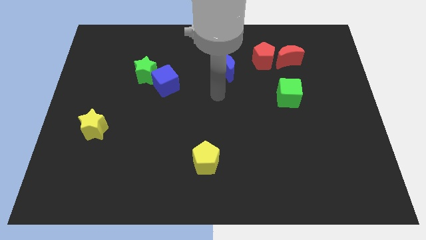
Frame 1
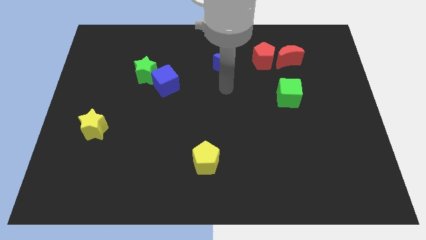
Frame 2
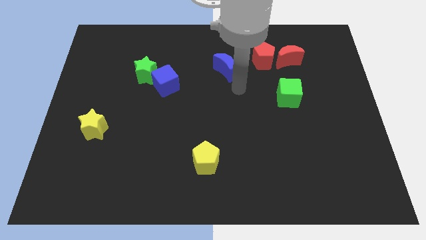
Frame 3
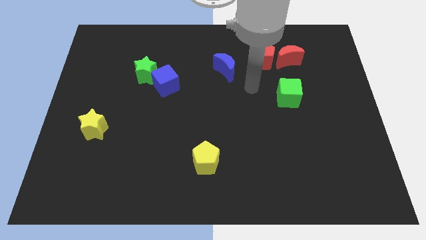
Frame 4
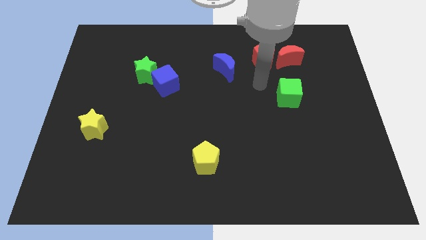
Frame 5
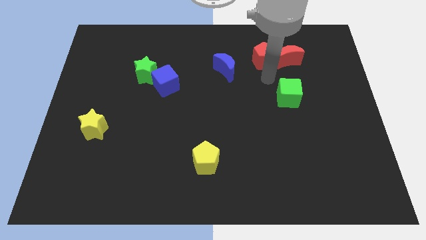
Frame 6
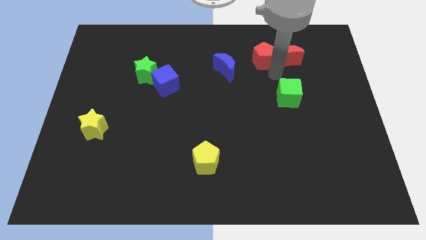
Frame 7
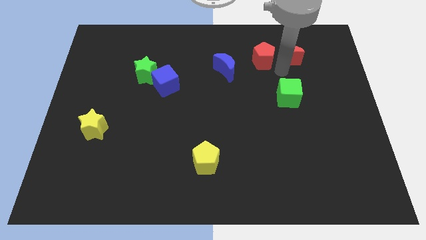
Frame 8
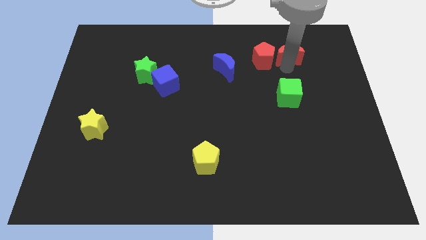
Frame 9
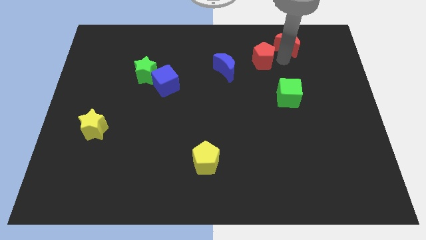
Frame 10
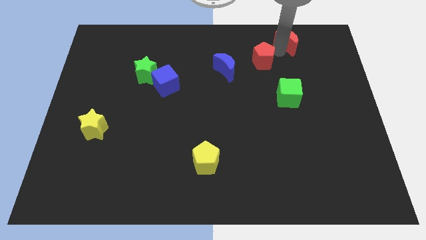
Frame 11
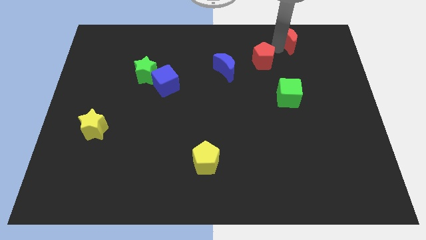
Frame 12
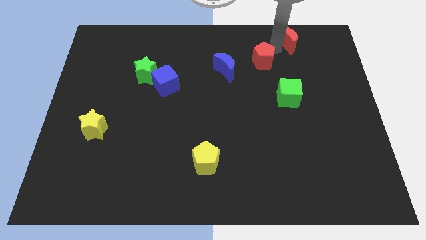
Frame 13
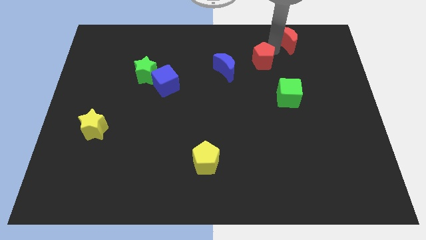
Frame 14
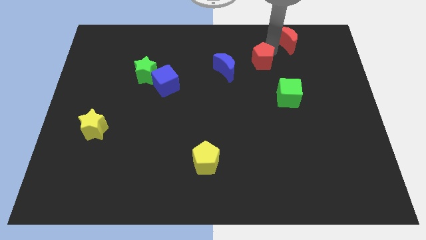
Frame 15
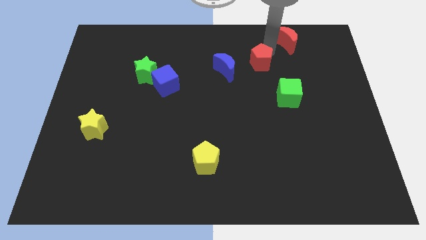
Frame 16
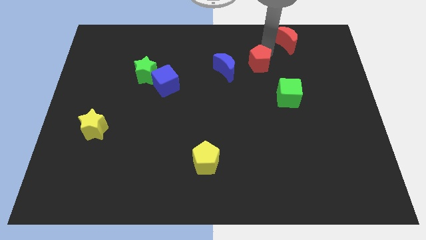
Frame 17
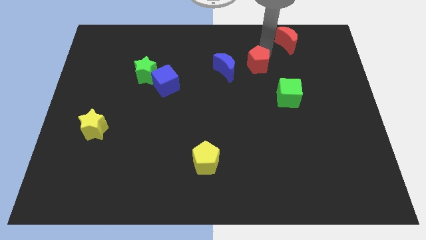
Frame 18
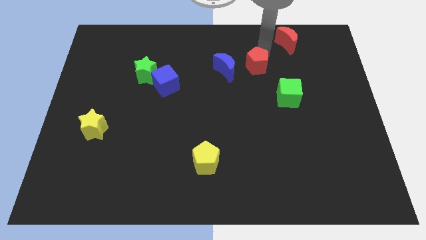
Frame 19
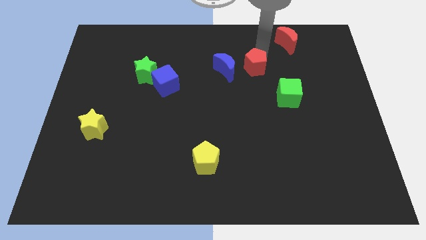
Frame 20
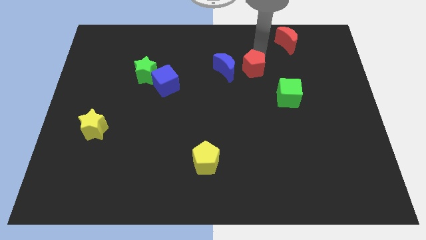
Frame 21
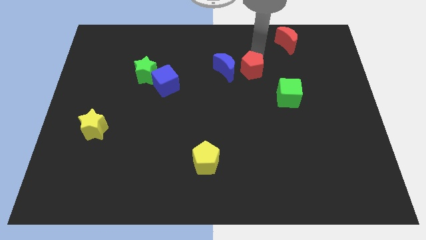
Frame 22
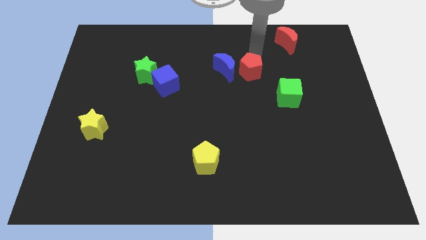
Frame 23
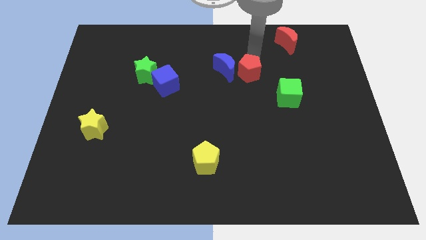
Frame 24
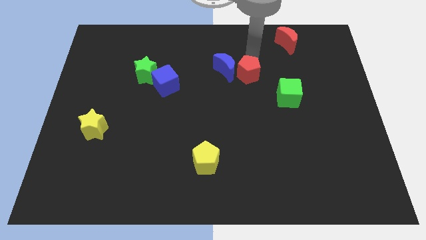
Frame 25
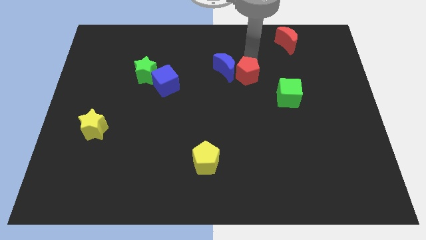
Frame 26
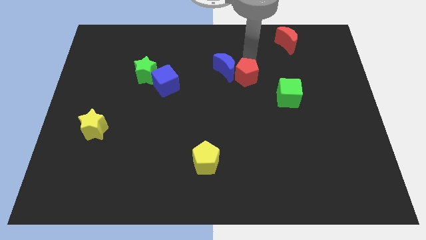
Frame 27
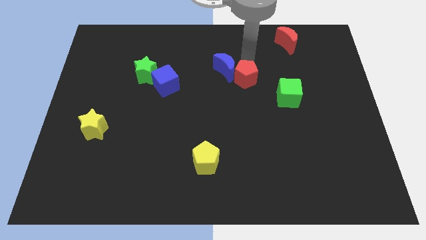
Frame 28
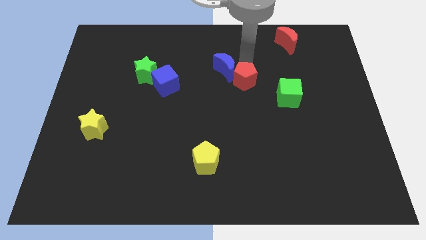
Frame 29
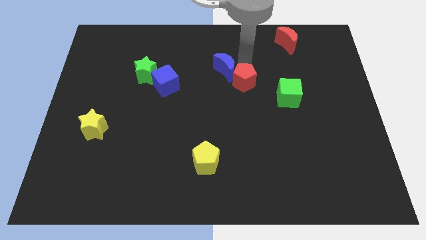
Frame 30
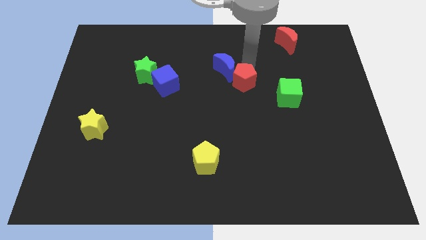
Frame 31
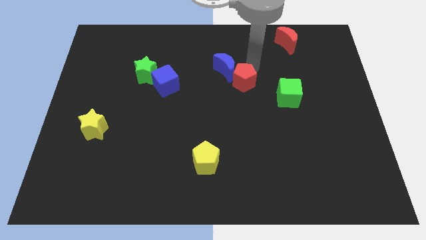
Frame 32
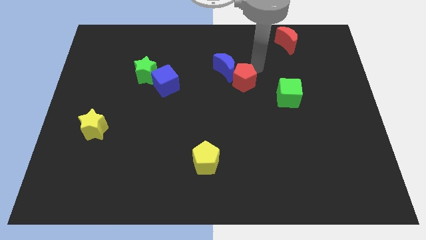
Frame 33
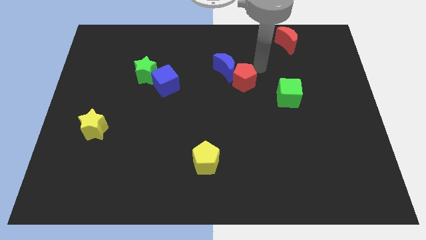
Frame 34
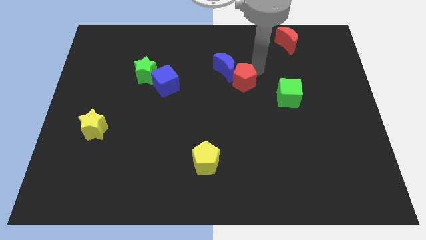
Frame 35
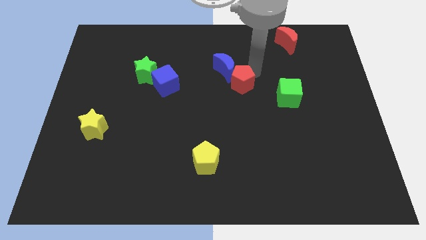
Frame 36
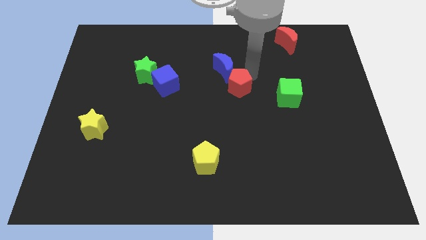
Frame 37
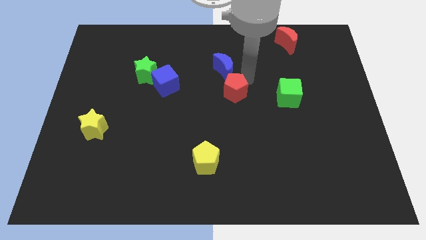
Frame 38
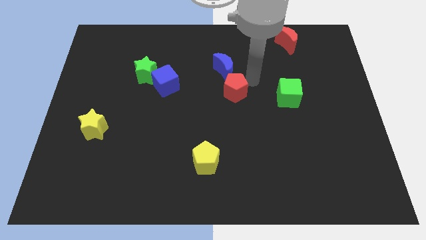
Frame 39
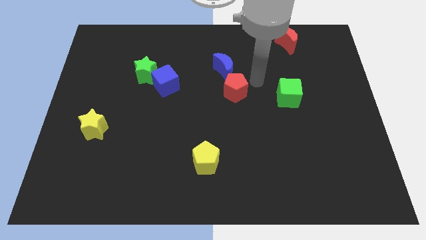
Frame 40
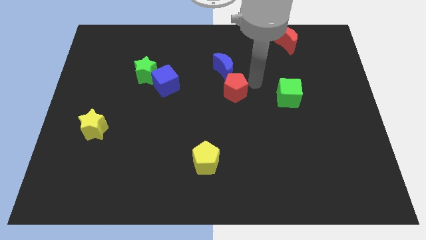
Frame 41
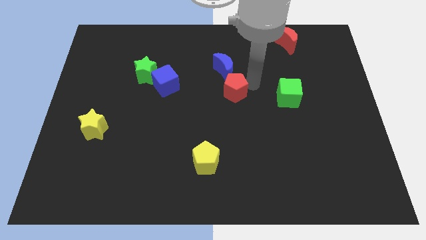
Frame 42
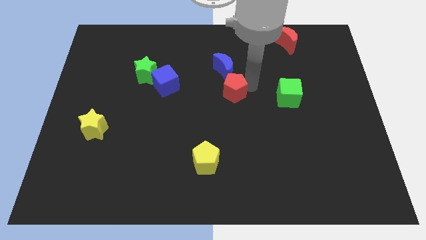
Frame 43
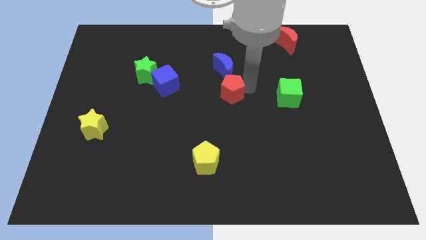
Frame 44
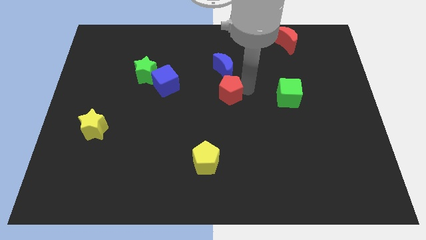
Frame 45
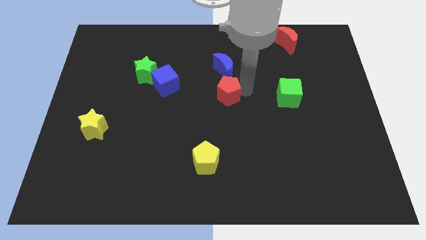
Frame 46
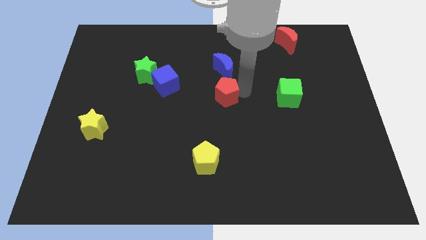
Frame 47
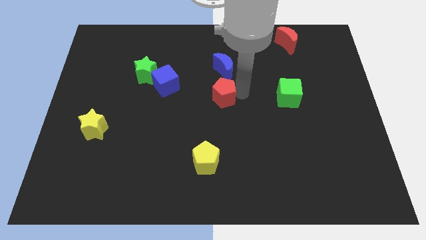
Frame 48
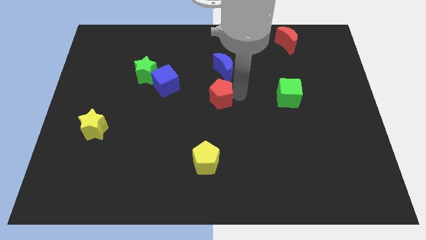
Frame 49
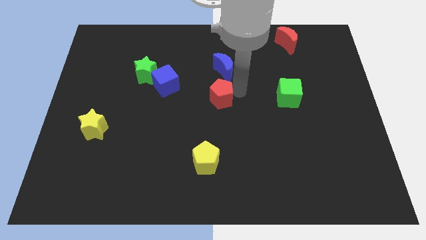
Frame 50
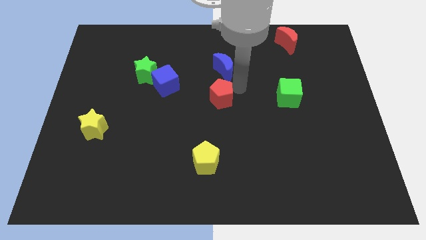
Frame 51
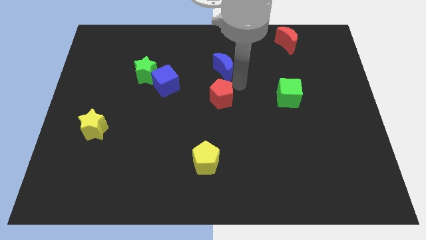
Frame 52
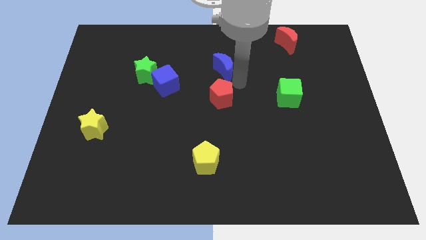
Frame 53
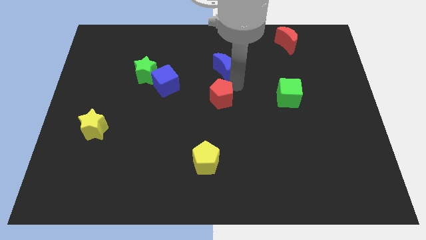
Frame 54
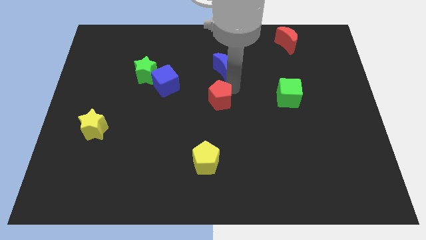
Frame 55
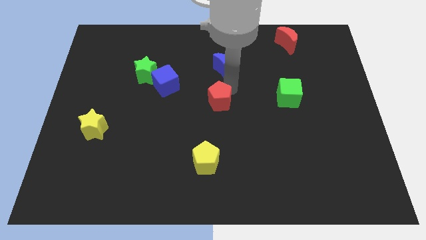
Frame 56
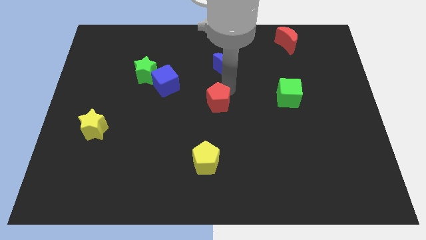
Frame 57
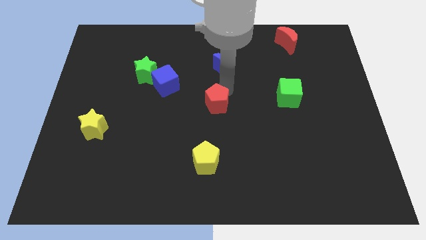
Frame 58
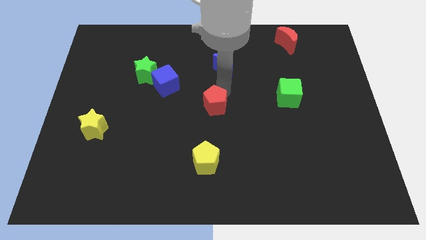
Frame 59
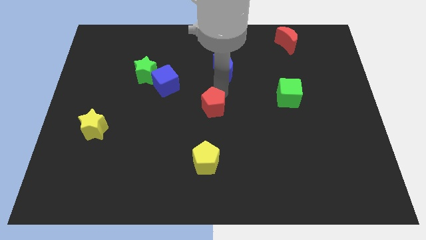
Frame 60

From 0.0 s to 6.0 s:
slide the red pentagon down and to the left

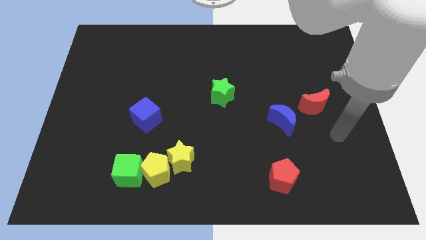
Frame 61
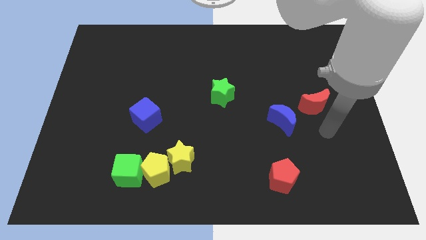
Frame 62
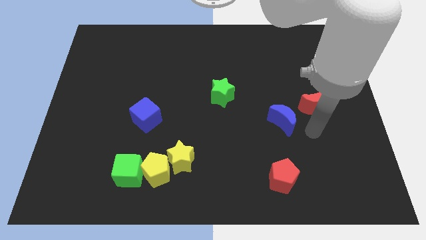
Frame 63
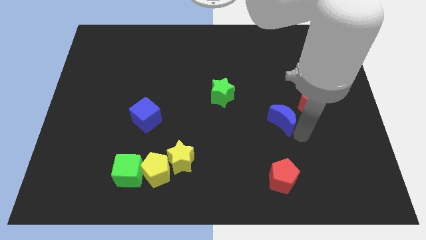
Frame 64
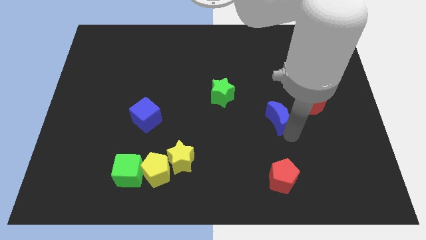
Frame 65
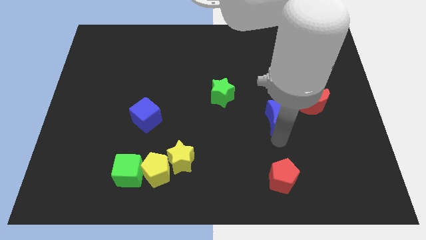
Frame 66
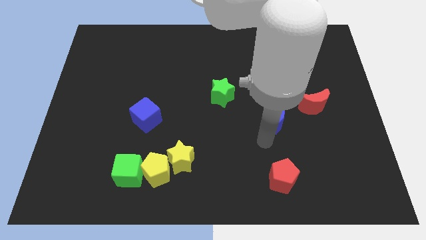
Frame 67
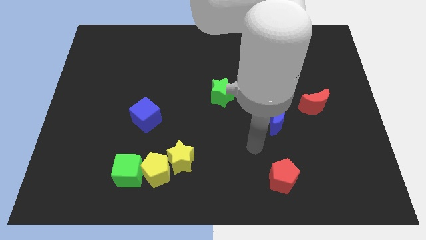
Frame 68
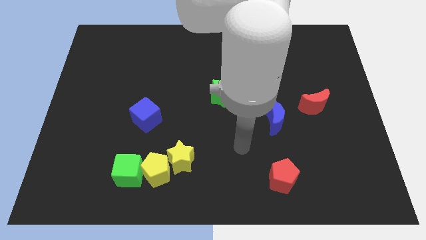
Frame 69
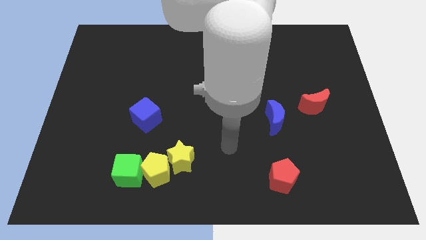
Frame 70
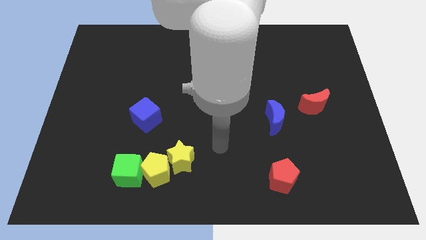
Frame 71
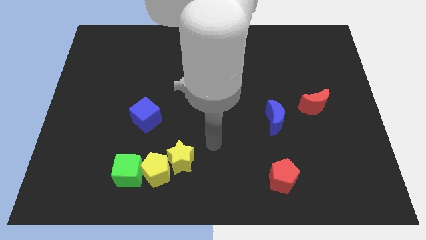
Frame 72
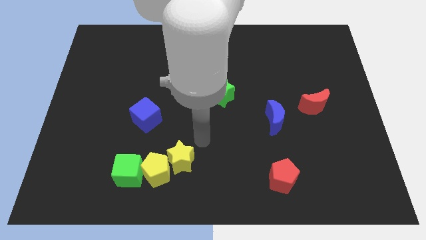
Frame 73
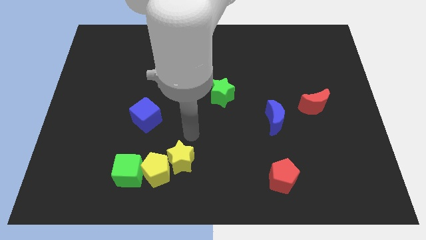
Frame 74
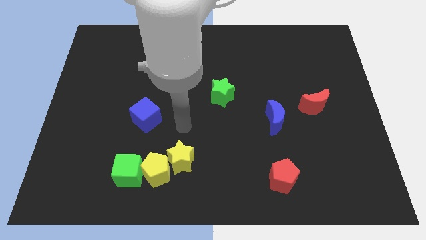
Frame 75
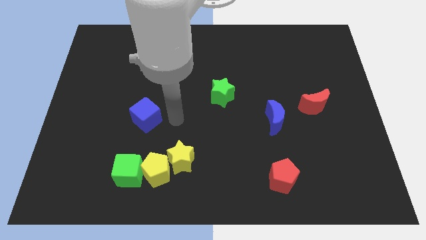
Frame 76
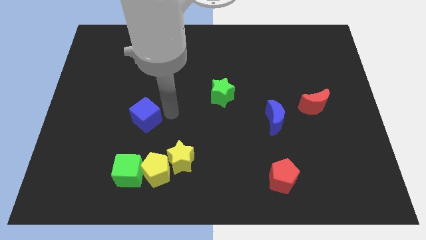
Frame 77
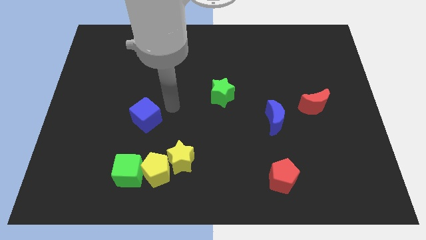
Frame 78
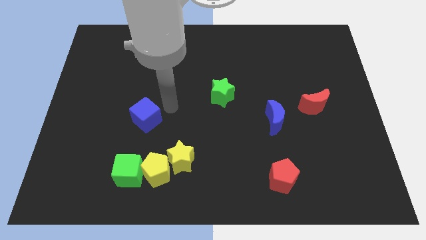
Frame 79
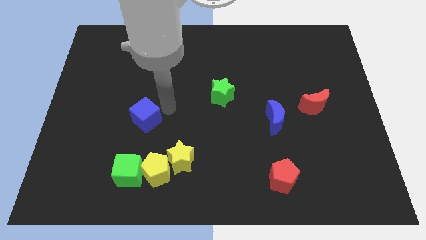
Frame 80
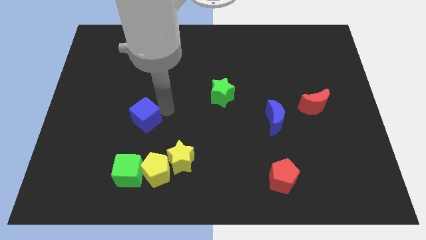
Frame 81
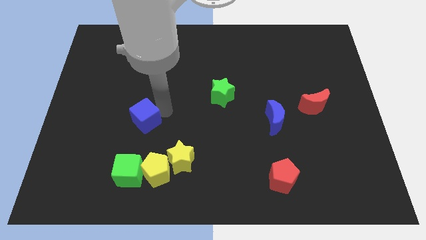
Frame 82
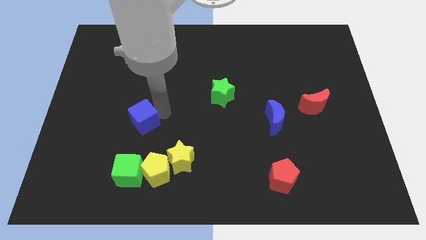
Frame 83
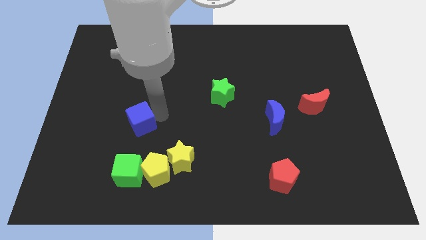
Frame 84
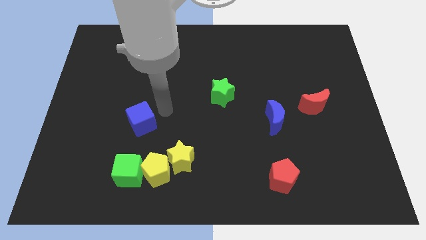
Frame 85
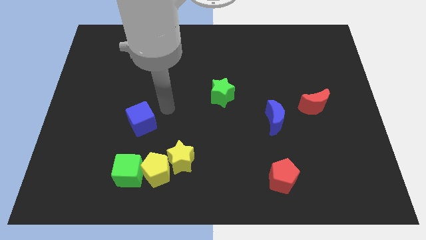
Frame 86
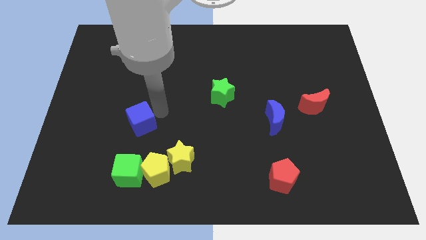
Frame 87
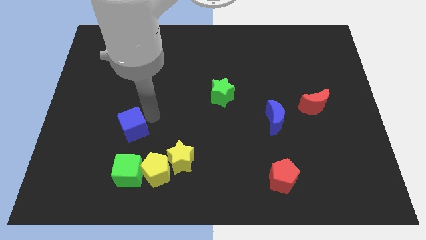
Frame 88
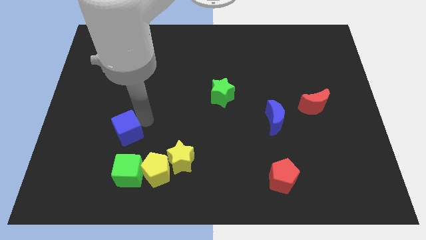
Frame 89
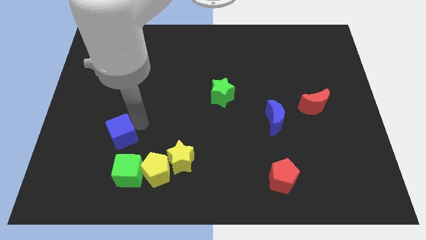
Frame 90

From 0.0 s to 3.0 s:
slightly move the blue cube down and then left
